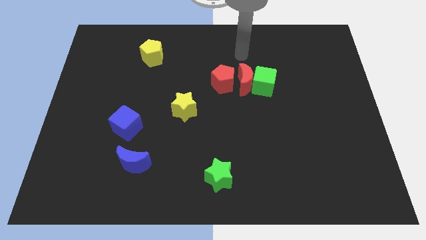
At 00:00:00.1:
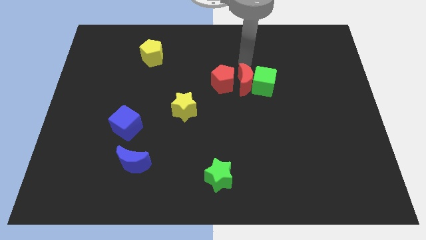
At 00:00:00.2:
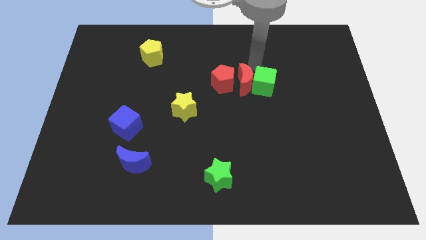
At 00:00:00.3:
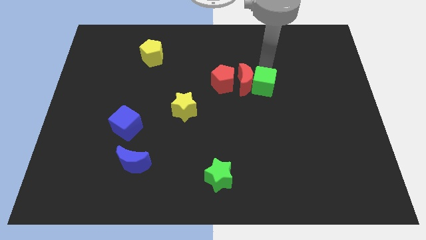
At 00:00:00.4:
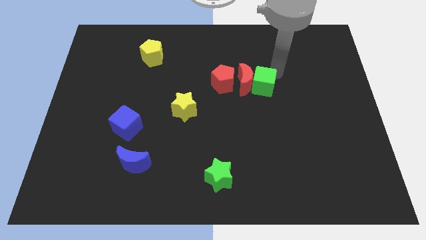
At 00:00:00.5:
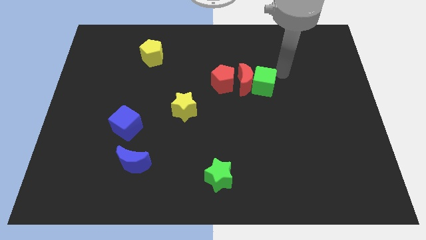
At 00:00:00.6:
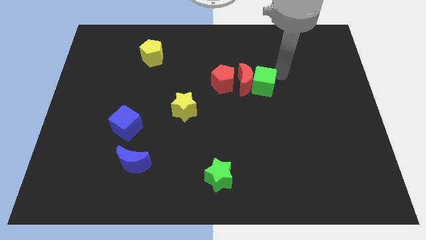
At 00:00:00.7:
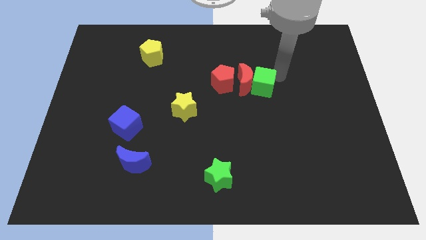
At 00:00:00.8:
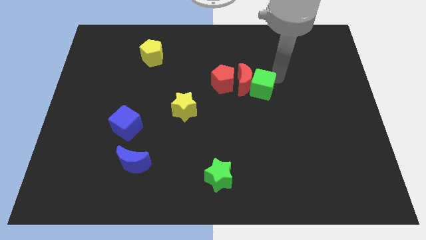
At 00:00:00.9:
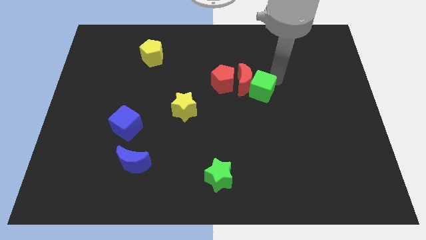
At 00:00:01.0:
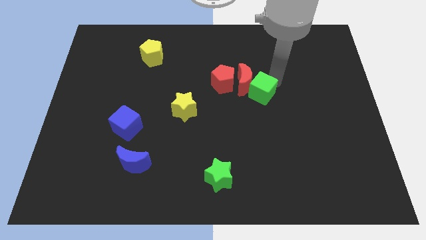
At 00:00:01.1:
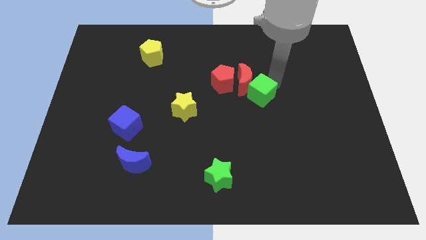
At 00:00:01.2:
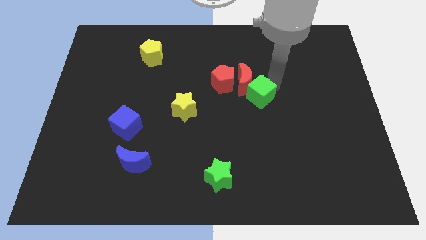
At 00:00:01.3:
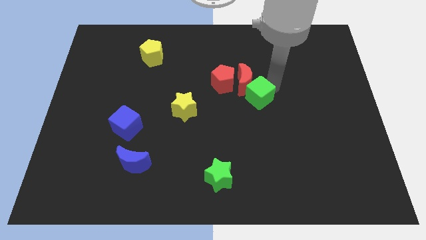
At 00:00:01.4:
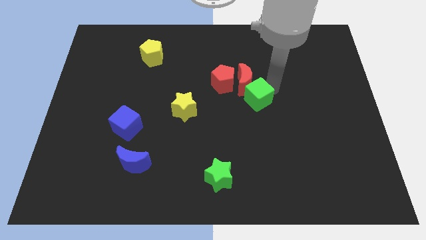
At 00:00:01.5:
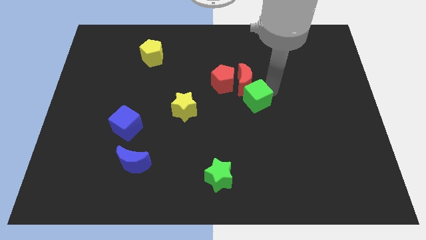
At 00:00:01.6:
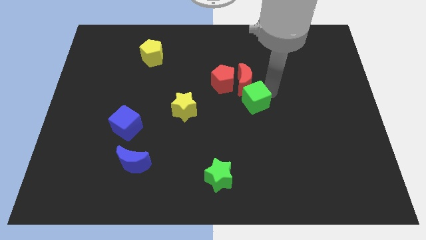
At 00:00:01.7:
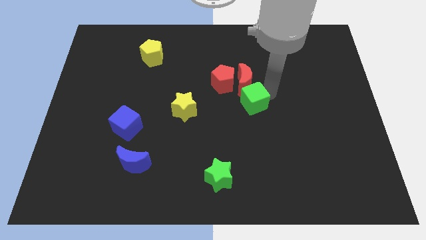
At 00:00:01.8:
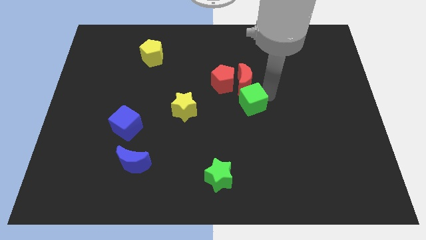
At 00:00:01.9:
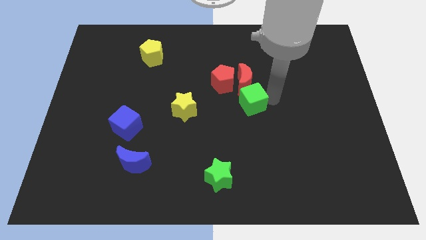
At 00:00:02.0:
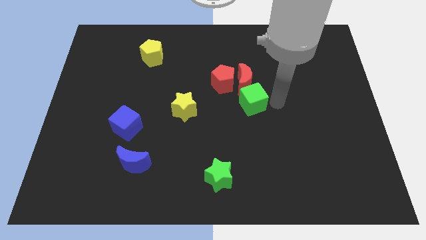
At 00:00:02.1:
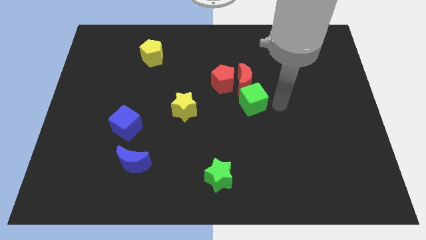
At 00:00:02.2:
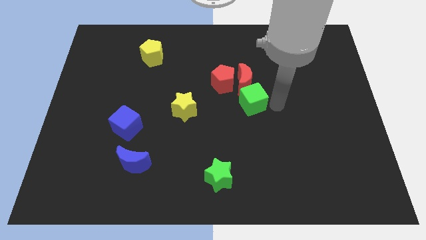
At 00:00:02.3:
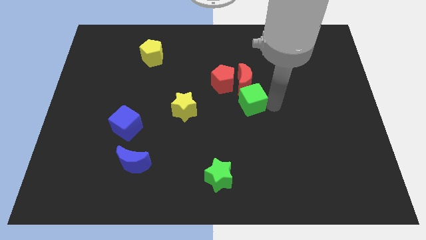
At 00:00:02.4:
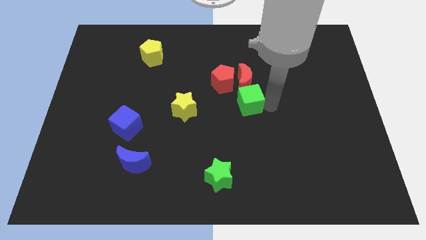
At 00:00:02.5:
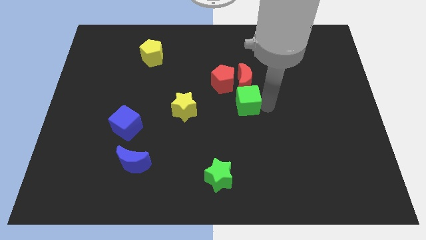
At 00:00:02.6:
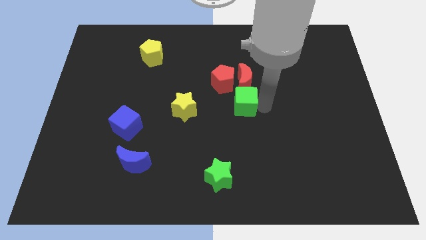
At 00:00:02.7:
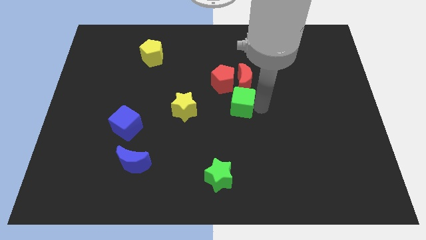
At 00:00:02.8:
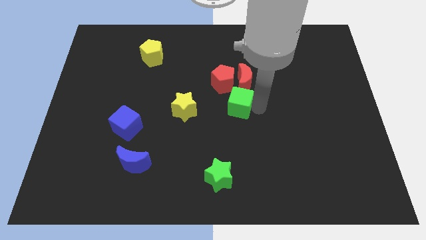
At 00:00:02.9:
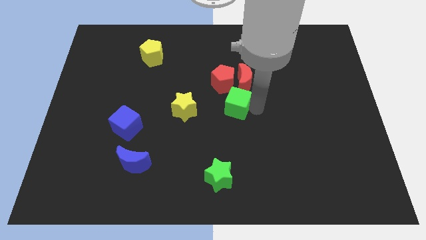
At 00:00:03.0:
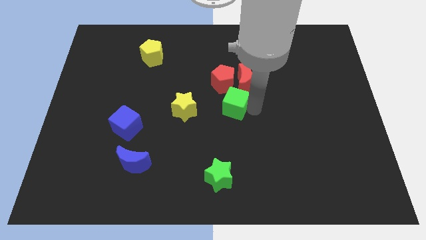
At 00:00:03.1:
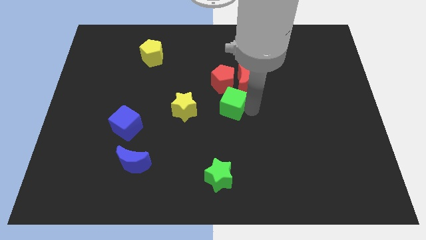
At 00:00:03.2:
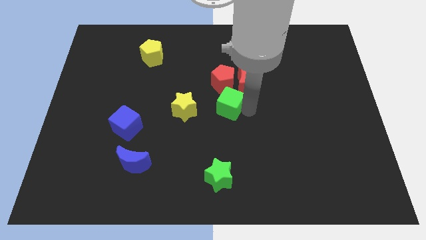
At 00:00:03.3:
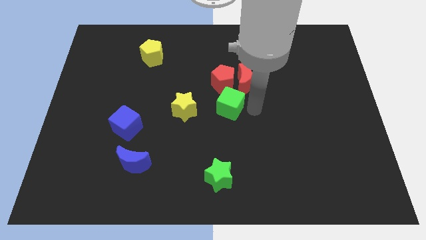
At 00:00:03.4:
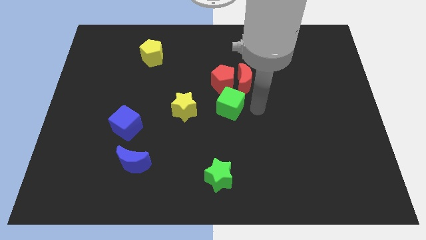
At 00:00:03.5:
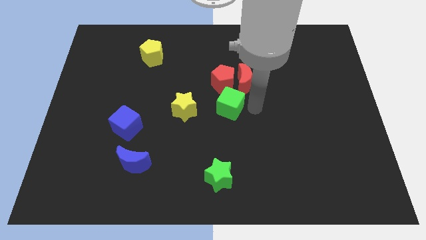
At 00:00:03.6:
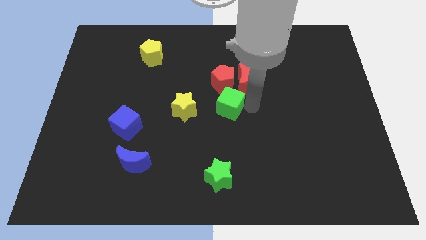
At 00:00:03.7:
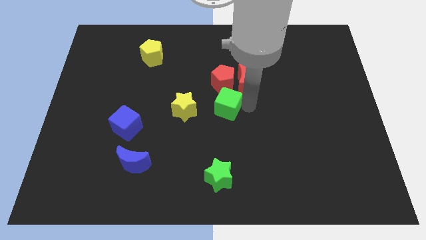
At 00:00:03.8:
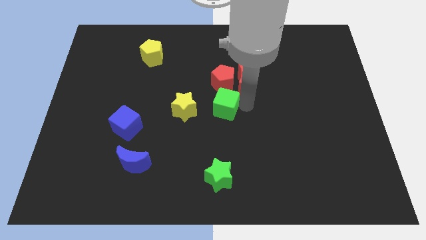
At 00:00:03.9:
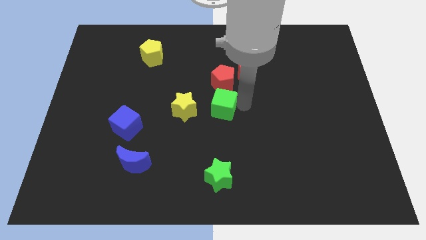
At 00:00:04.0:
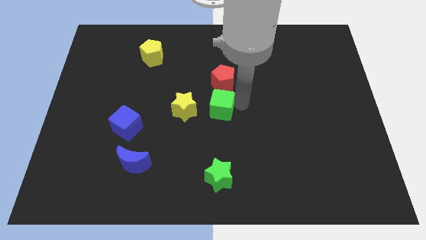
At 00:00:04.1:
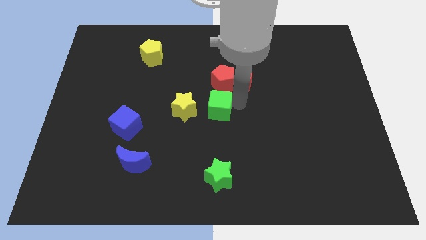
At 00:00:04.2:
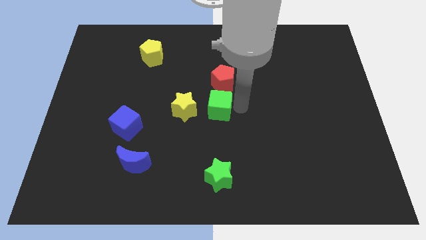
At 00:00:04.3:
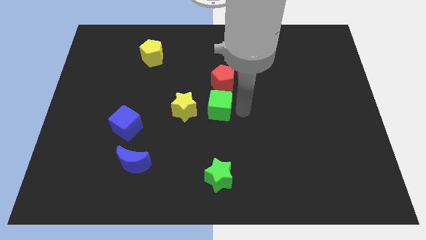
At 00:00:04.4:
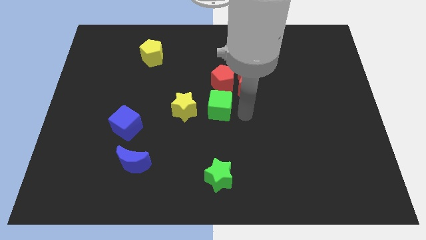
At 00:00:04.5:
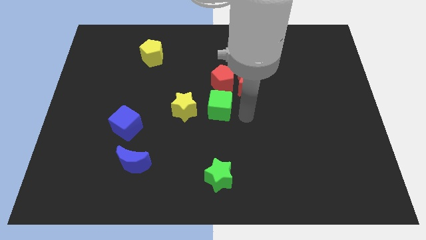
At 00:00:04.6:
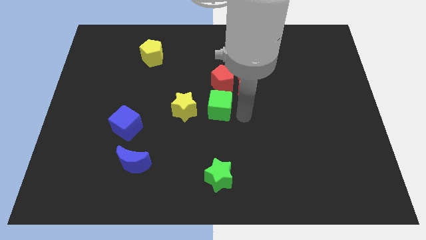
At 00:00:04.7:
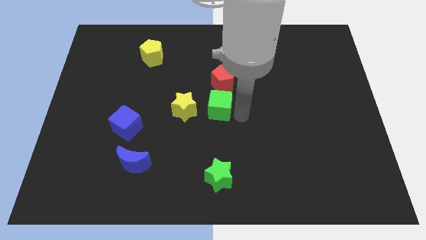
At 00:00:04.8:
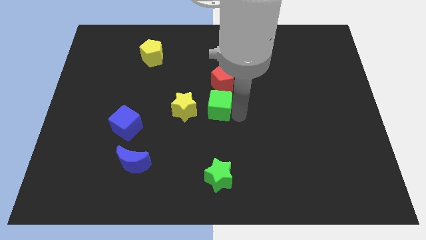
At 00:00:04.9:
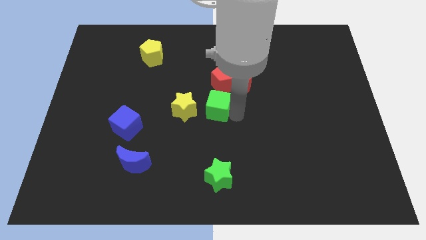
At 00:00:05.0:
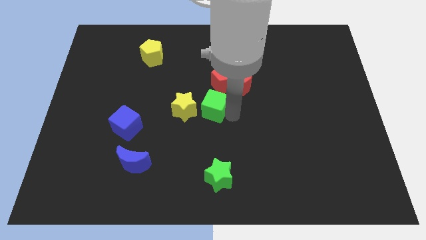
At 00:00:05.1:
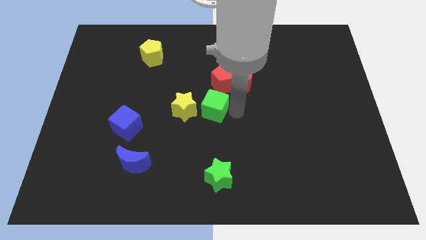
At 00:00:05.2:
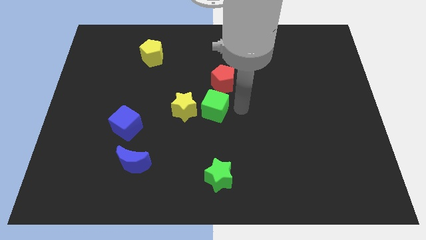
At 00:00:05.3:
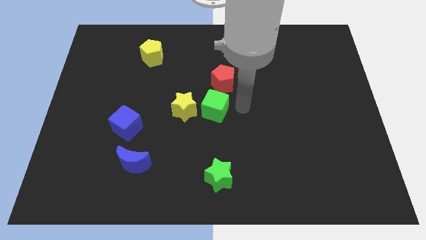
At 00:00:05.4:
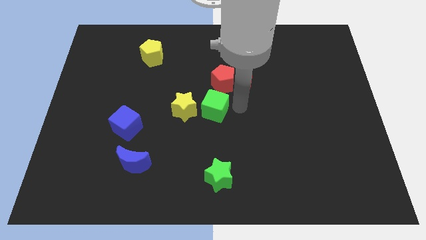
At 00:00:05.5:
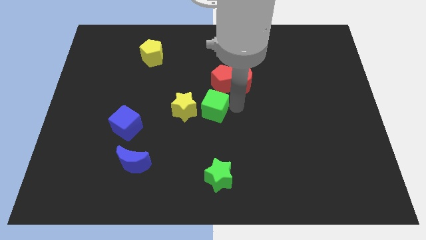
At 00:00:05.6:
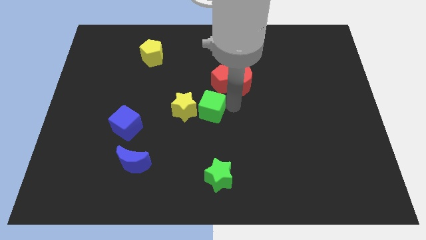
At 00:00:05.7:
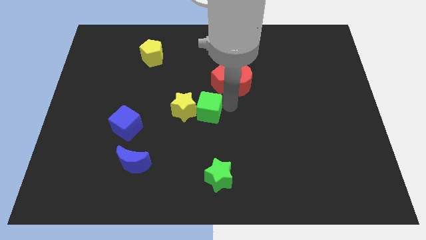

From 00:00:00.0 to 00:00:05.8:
slide the green cube to the yellow star
